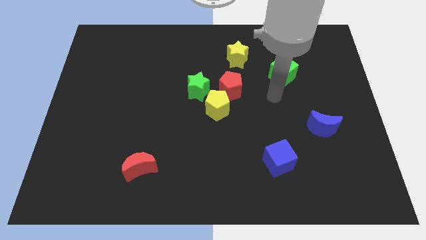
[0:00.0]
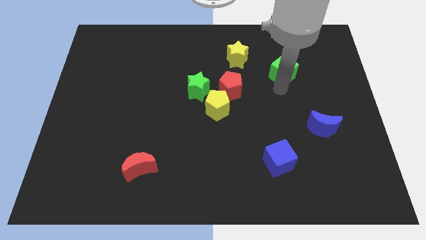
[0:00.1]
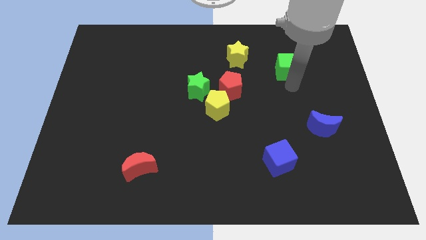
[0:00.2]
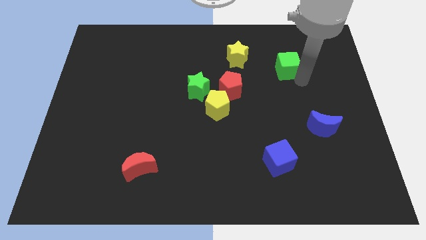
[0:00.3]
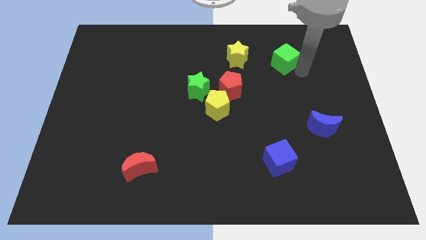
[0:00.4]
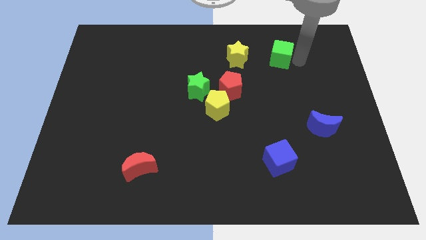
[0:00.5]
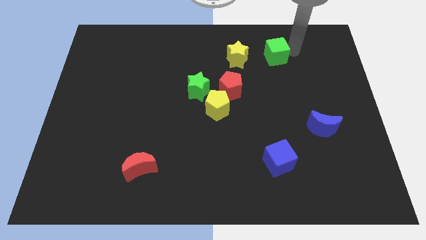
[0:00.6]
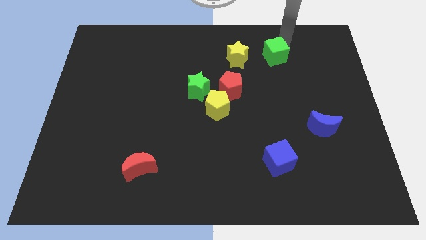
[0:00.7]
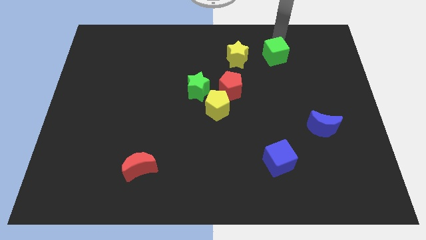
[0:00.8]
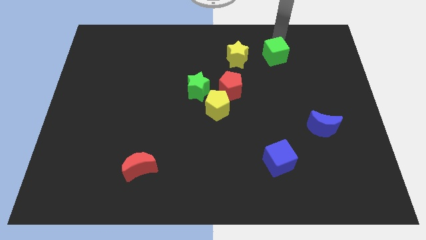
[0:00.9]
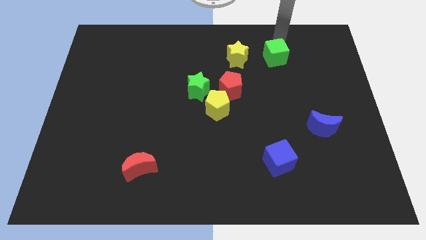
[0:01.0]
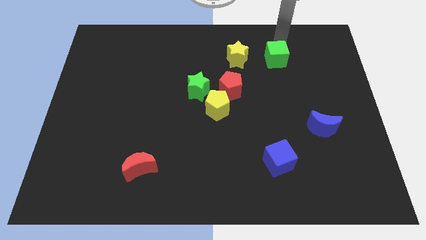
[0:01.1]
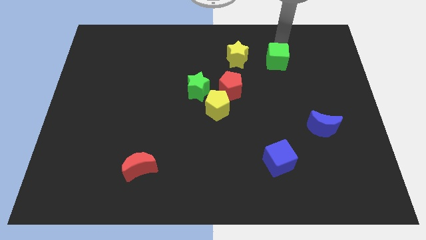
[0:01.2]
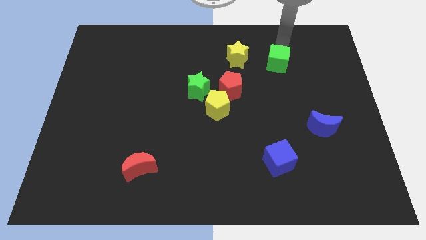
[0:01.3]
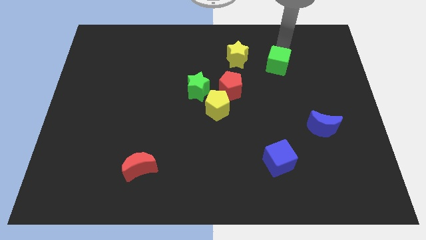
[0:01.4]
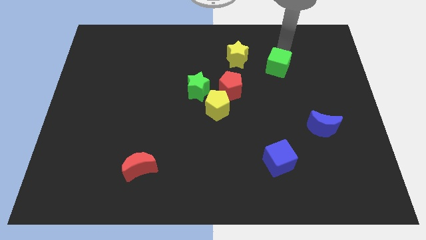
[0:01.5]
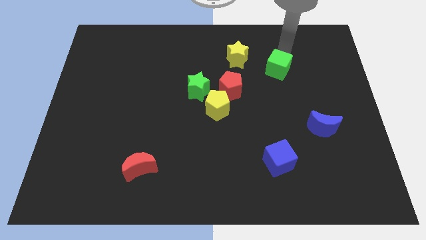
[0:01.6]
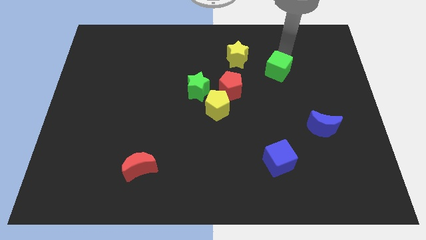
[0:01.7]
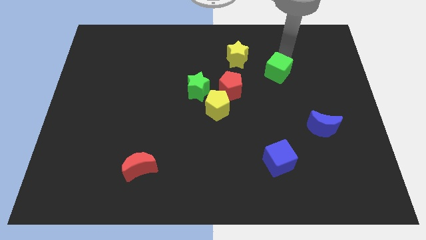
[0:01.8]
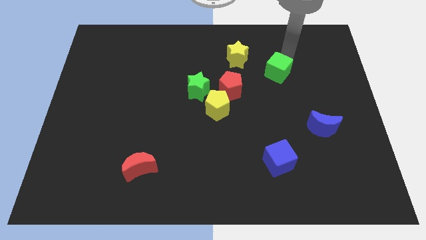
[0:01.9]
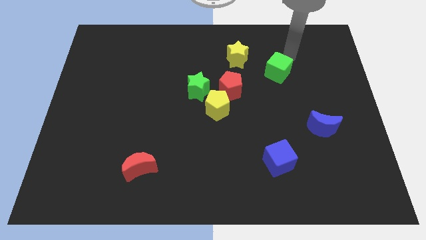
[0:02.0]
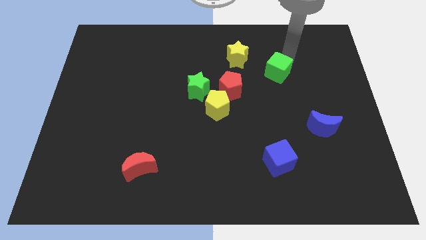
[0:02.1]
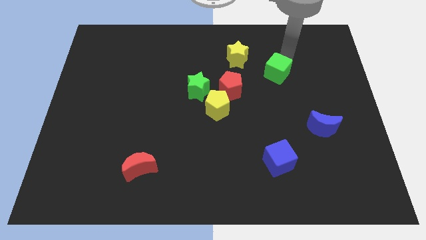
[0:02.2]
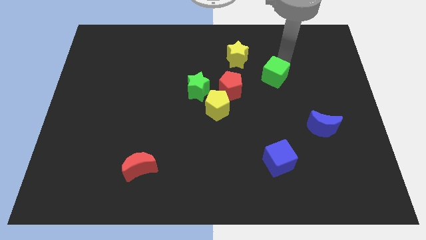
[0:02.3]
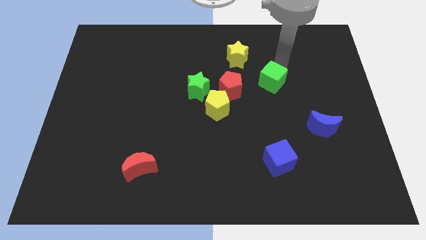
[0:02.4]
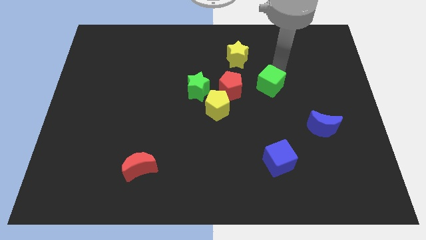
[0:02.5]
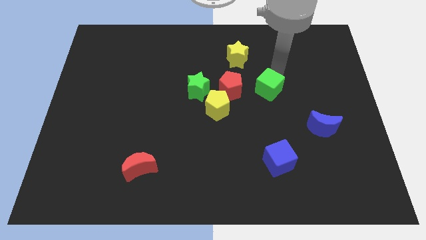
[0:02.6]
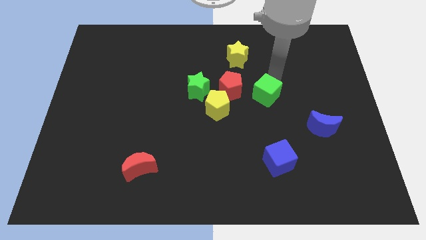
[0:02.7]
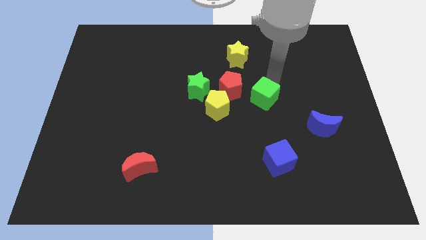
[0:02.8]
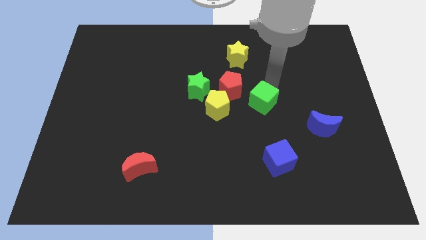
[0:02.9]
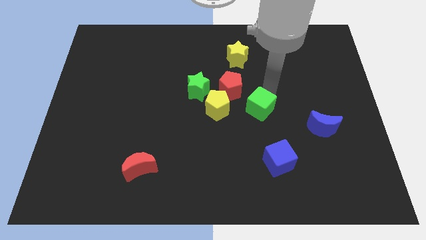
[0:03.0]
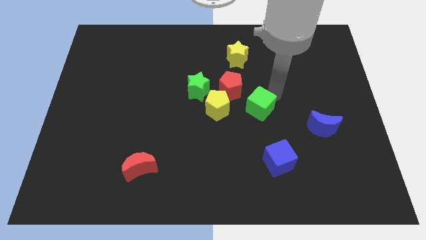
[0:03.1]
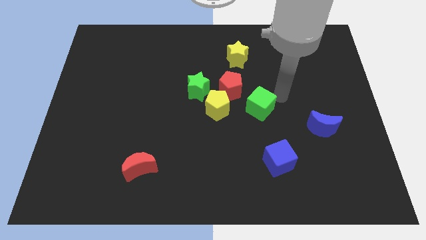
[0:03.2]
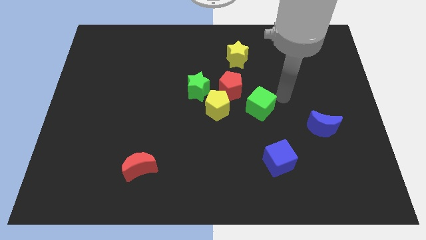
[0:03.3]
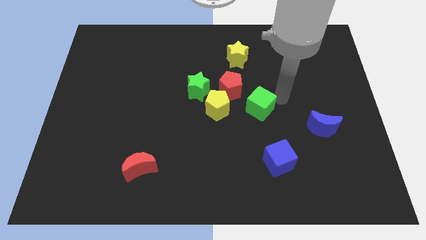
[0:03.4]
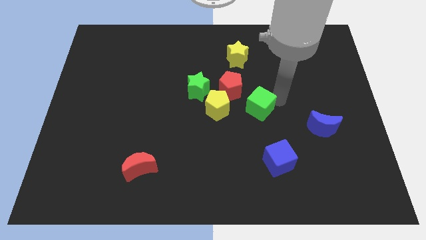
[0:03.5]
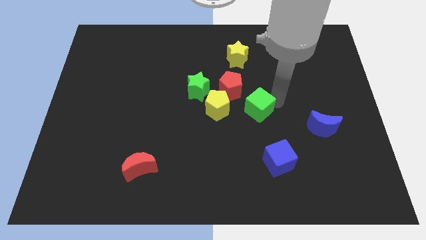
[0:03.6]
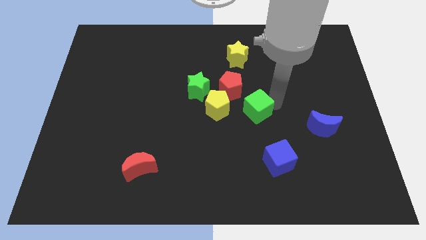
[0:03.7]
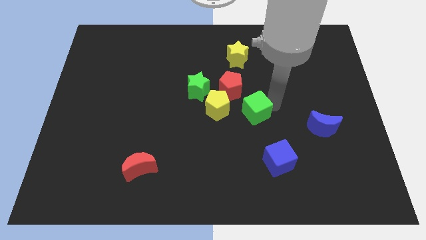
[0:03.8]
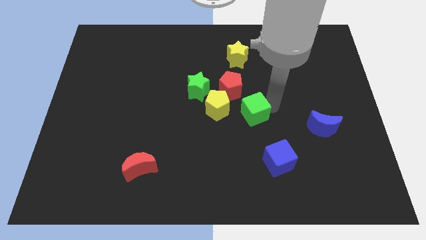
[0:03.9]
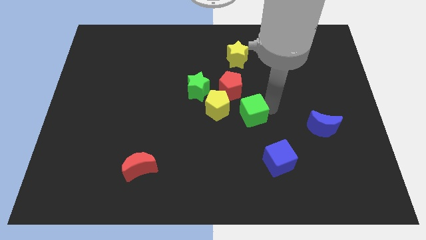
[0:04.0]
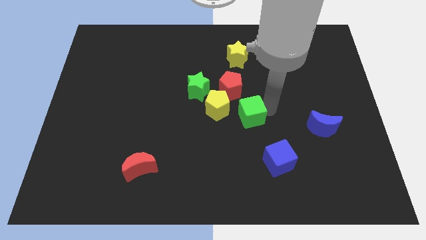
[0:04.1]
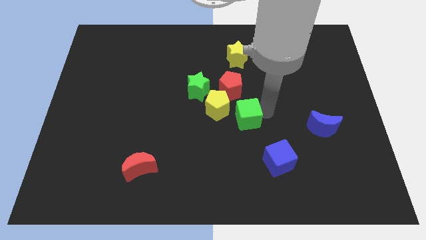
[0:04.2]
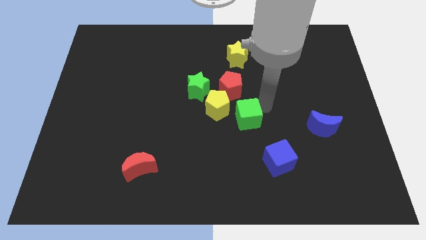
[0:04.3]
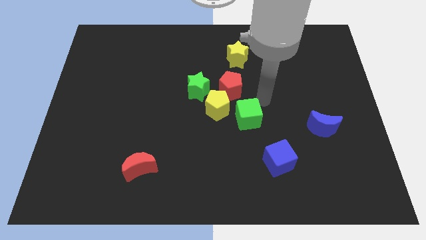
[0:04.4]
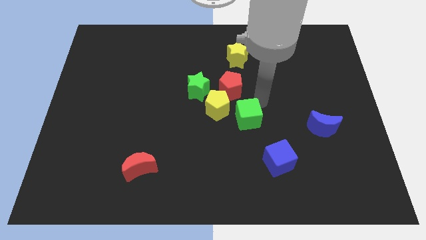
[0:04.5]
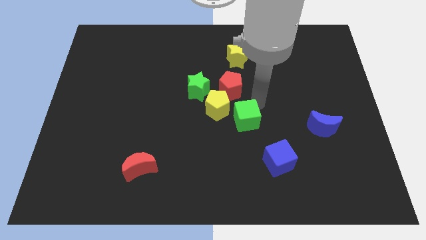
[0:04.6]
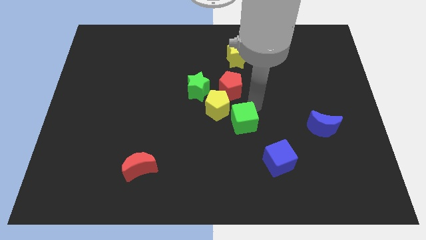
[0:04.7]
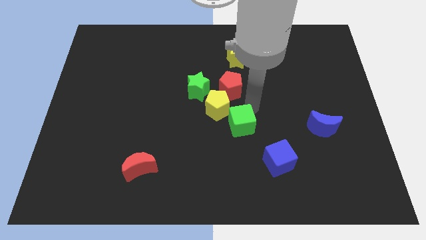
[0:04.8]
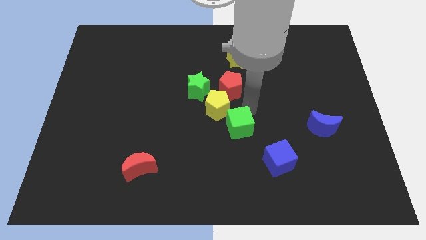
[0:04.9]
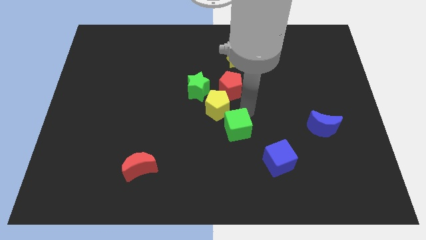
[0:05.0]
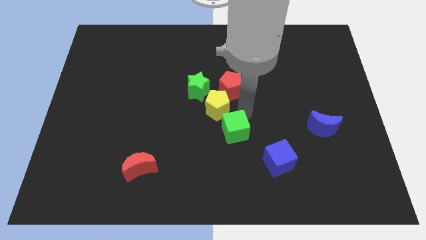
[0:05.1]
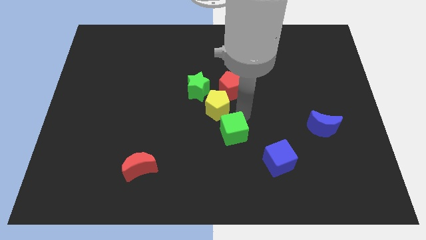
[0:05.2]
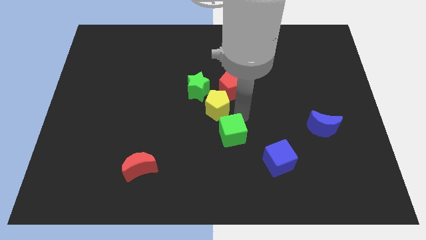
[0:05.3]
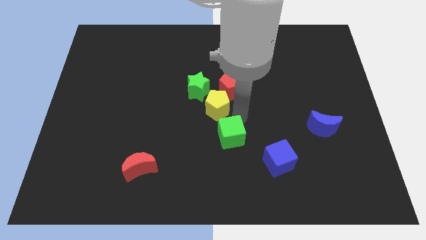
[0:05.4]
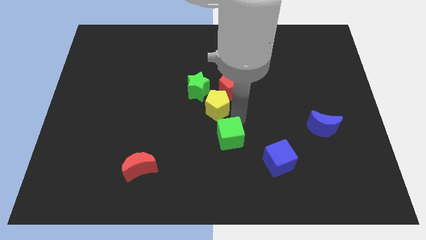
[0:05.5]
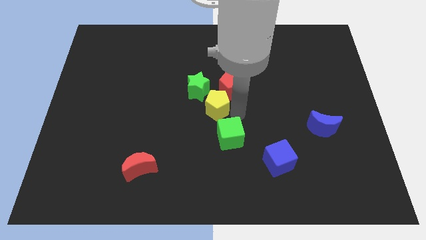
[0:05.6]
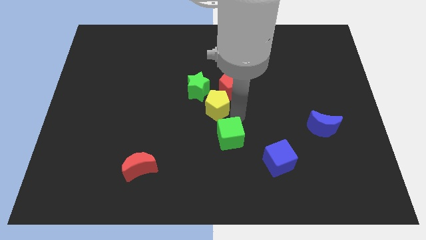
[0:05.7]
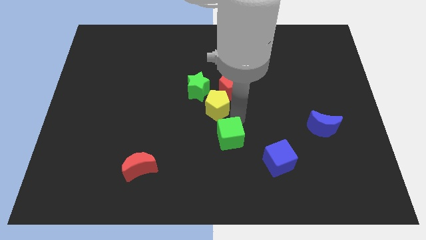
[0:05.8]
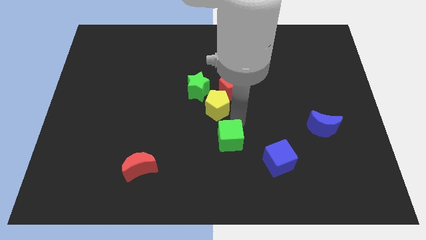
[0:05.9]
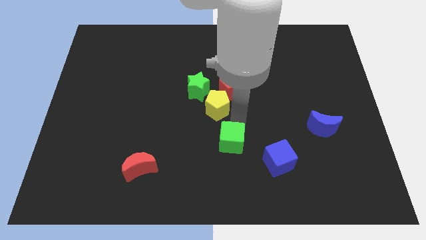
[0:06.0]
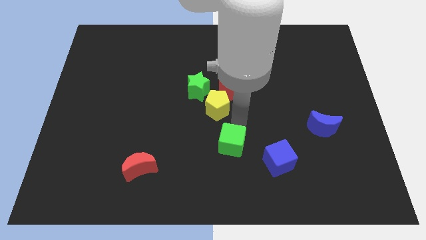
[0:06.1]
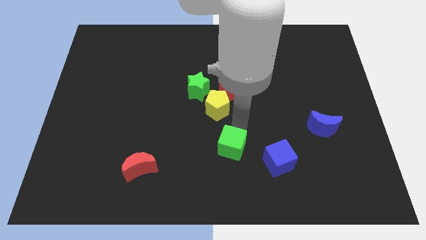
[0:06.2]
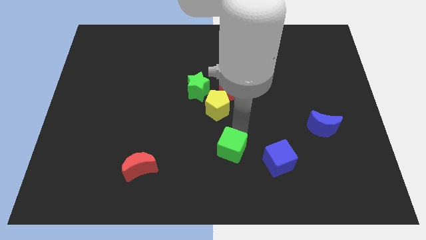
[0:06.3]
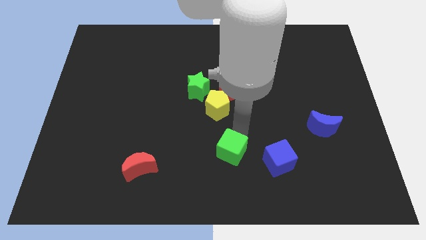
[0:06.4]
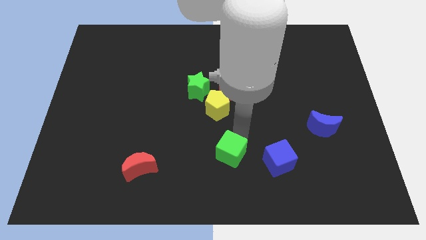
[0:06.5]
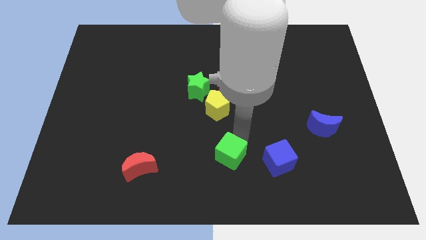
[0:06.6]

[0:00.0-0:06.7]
move the green cube to the bottom side

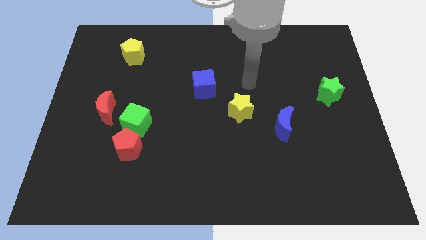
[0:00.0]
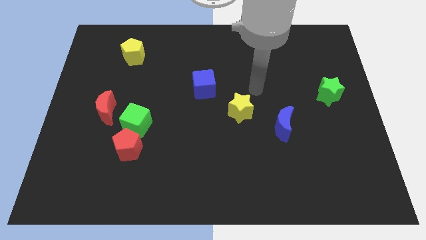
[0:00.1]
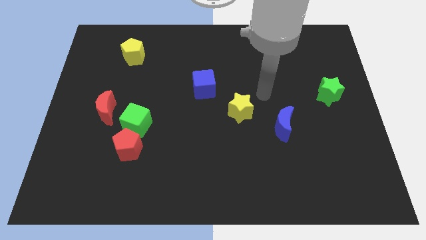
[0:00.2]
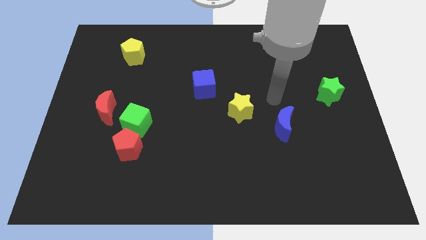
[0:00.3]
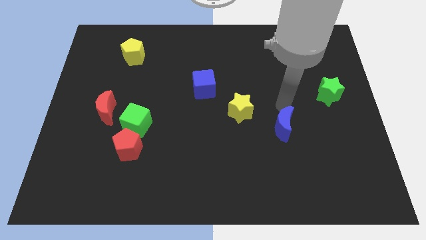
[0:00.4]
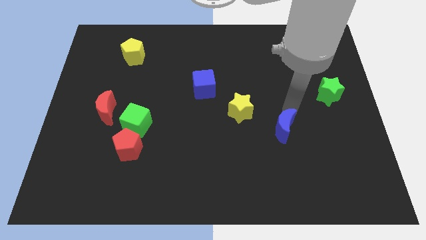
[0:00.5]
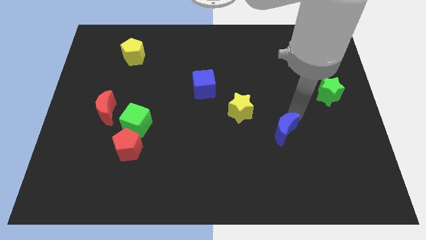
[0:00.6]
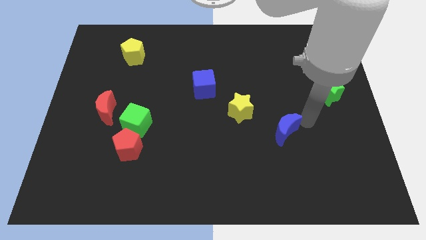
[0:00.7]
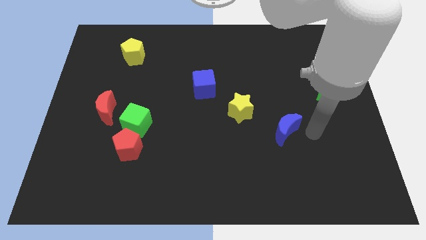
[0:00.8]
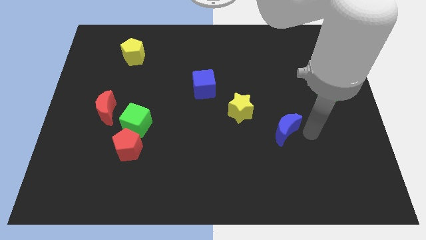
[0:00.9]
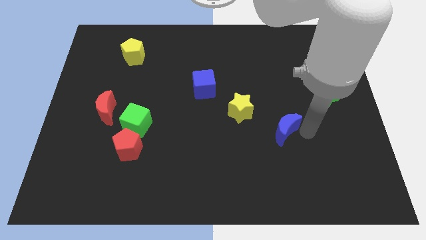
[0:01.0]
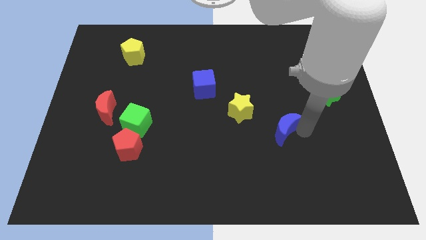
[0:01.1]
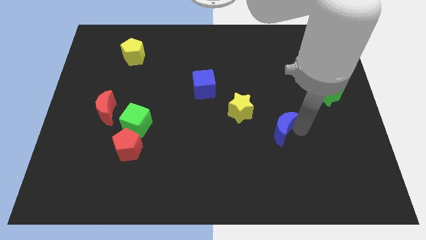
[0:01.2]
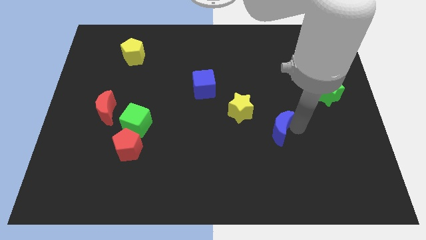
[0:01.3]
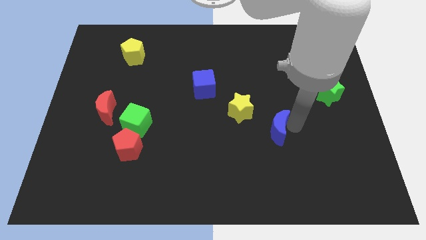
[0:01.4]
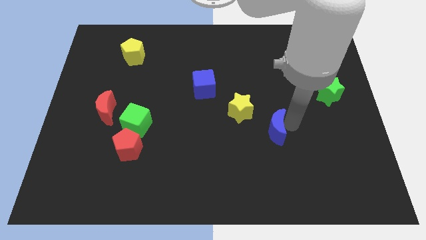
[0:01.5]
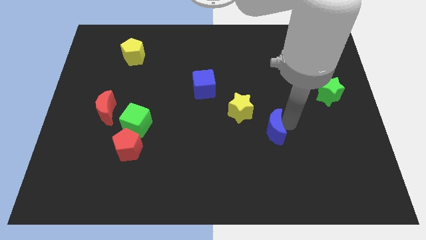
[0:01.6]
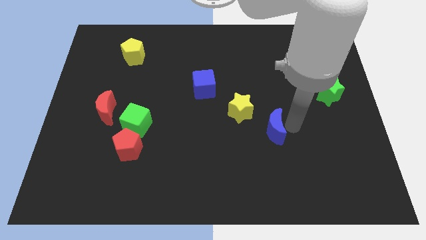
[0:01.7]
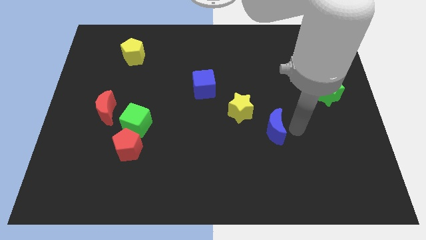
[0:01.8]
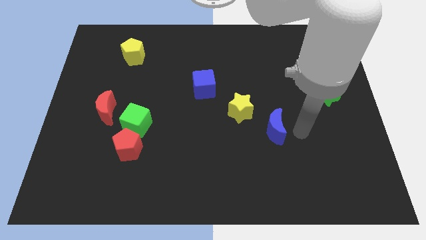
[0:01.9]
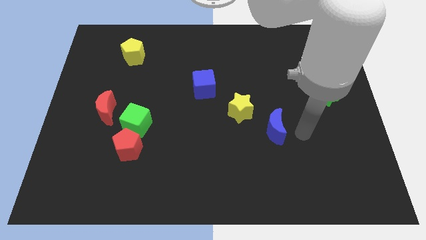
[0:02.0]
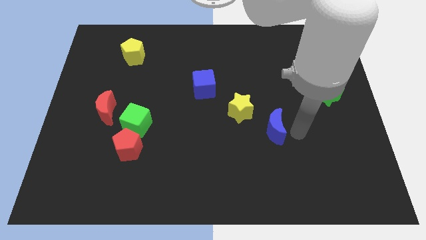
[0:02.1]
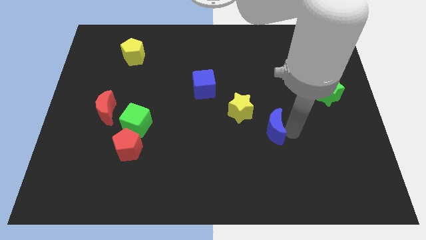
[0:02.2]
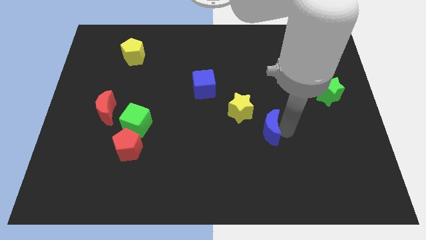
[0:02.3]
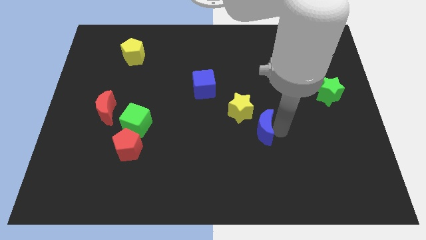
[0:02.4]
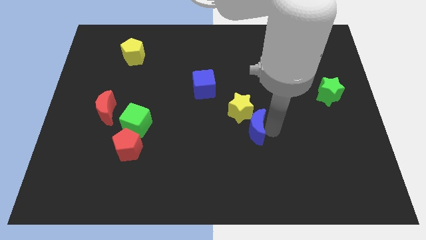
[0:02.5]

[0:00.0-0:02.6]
move the blue moon to the center of the board
